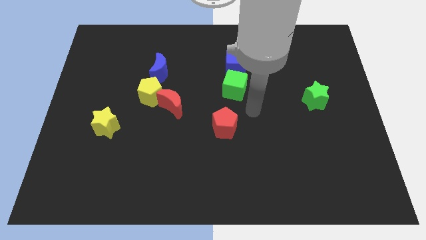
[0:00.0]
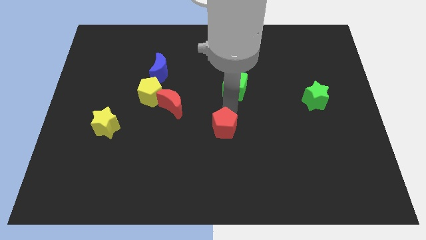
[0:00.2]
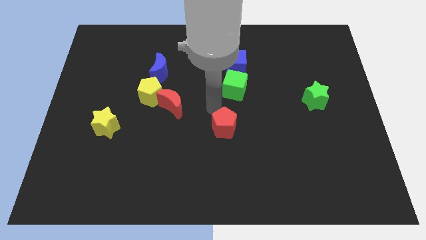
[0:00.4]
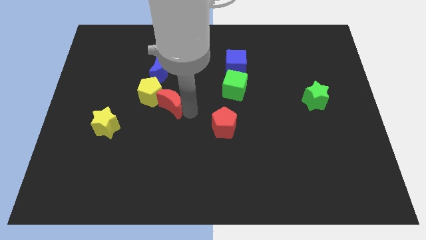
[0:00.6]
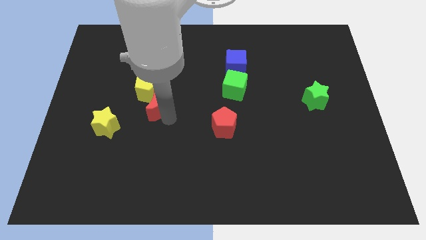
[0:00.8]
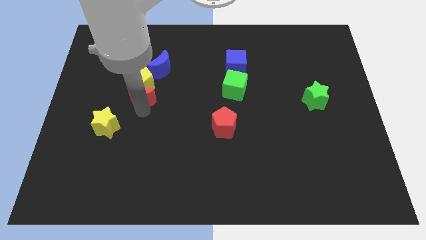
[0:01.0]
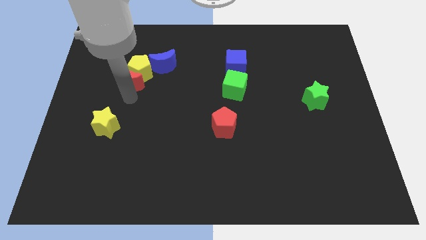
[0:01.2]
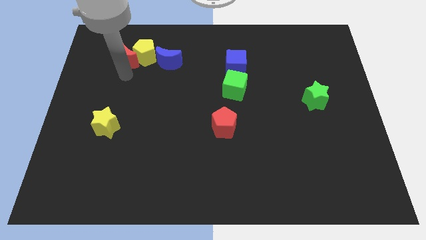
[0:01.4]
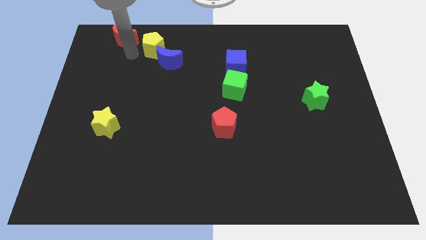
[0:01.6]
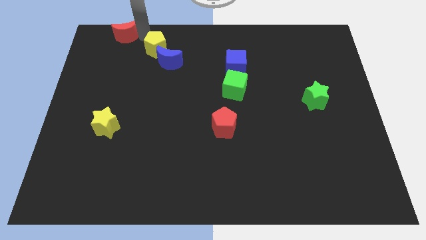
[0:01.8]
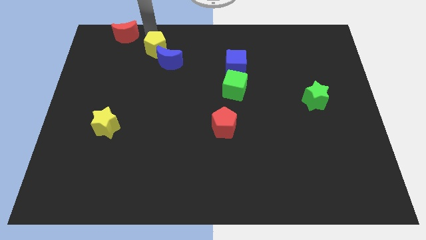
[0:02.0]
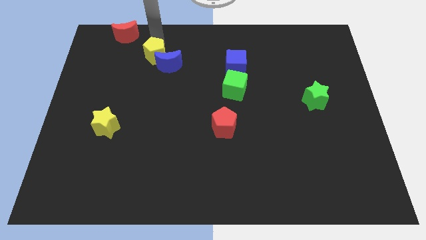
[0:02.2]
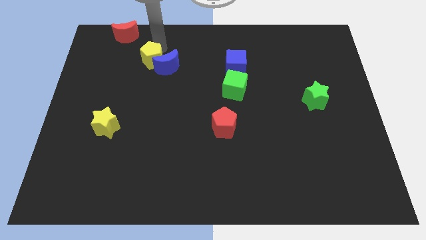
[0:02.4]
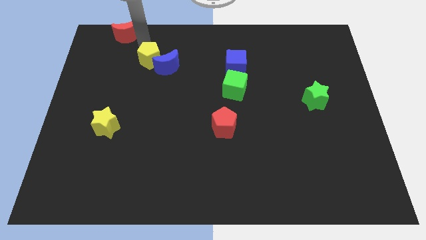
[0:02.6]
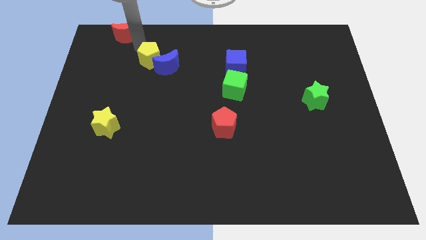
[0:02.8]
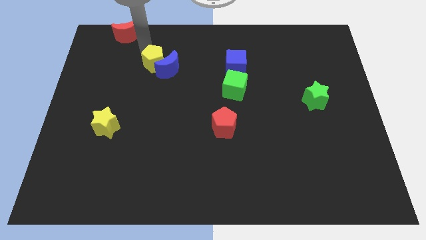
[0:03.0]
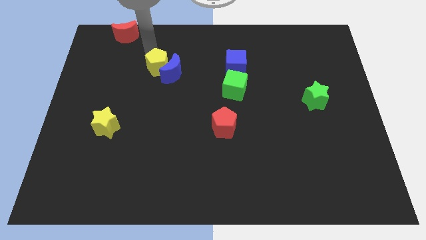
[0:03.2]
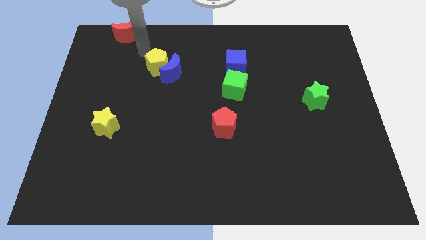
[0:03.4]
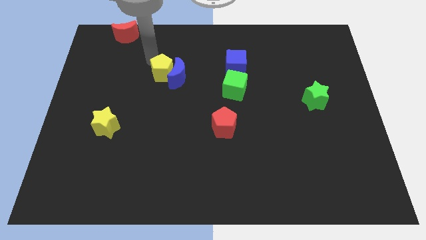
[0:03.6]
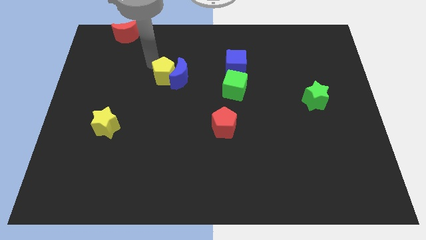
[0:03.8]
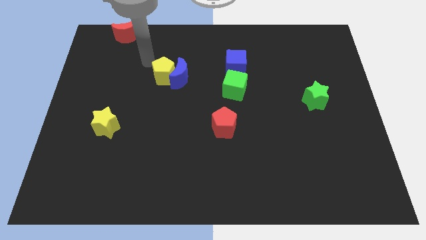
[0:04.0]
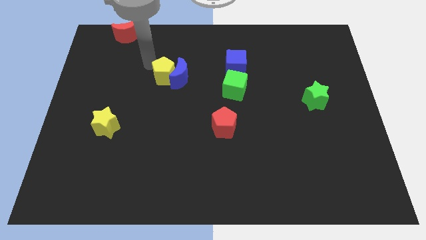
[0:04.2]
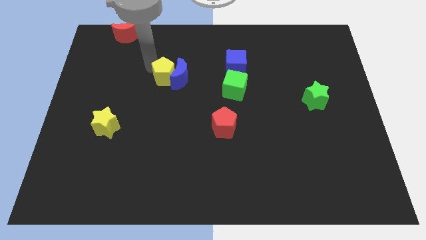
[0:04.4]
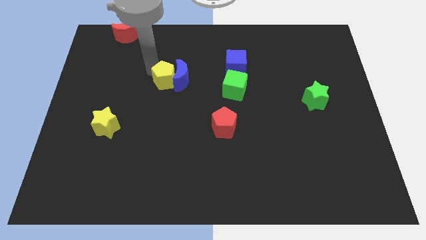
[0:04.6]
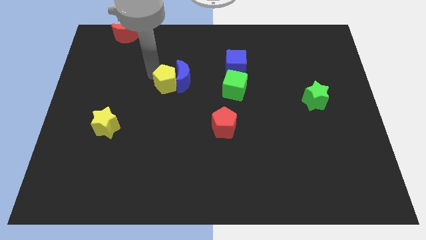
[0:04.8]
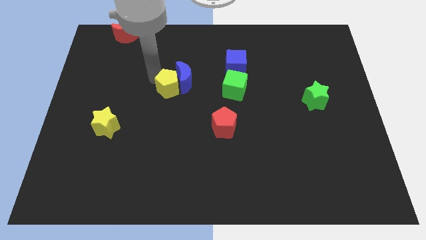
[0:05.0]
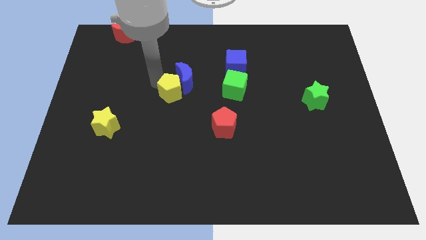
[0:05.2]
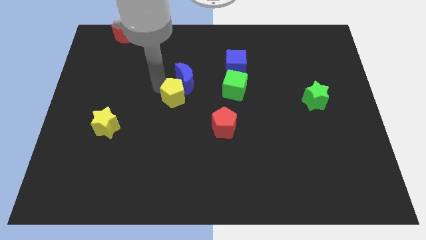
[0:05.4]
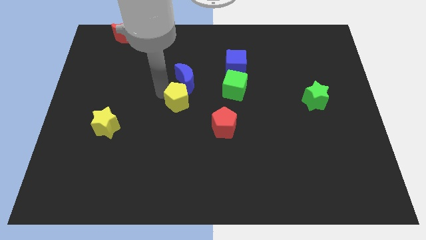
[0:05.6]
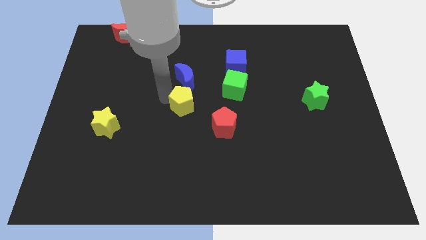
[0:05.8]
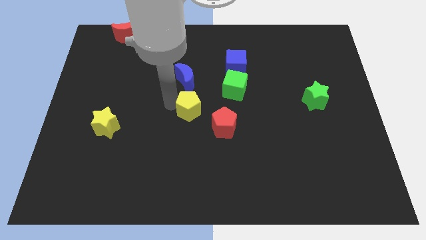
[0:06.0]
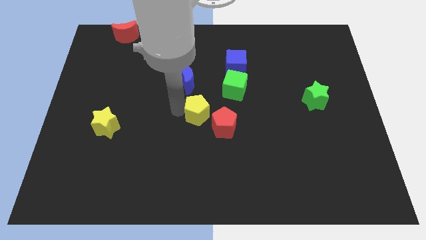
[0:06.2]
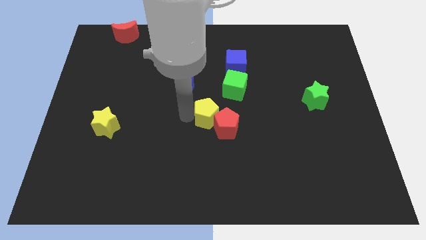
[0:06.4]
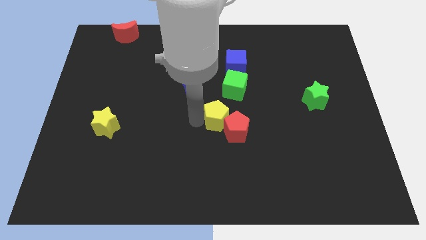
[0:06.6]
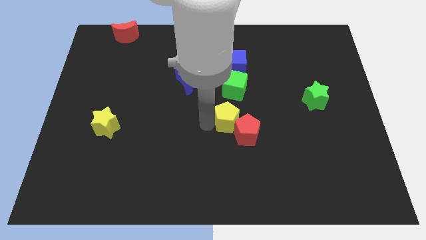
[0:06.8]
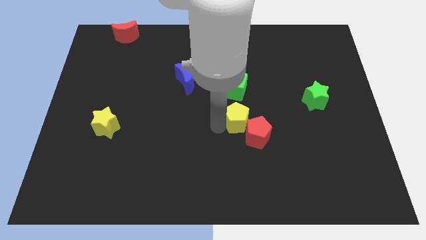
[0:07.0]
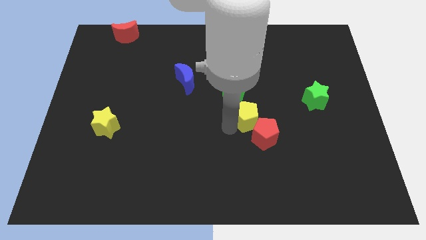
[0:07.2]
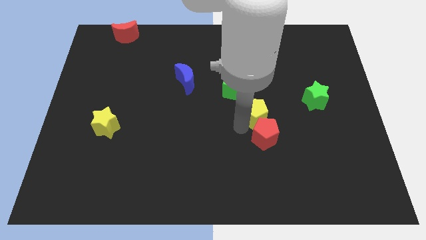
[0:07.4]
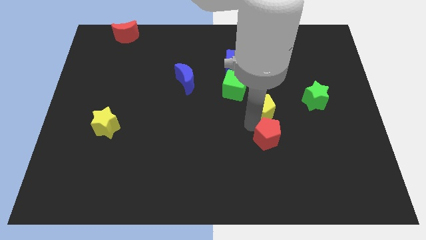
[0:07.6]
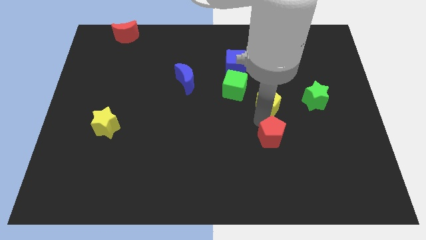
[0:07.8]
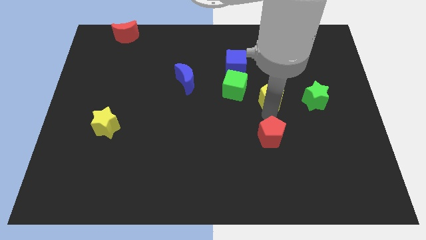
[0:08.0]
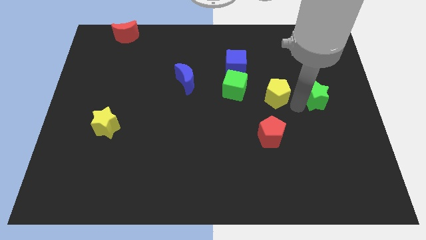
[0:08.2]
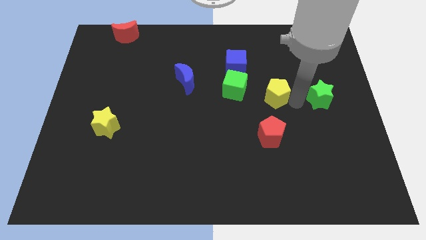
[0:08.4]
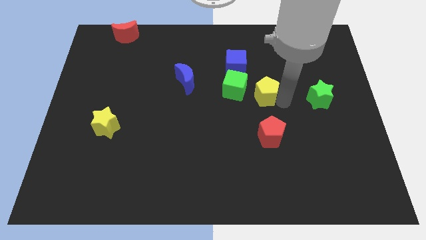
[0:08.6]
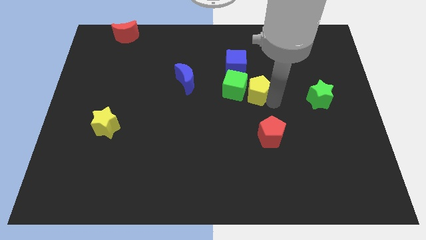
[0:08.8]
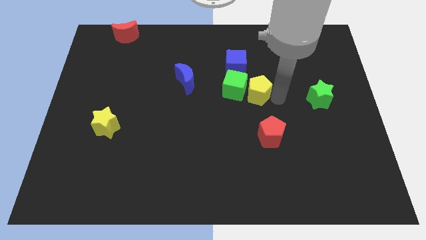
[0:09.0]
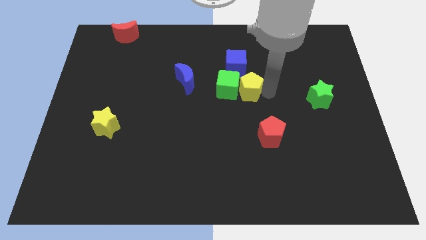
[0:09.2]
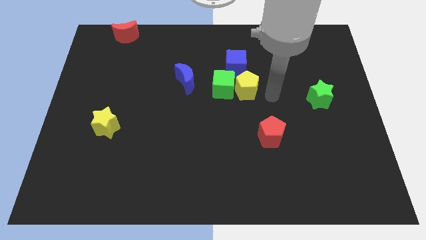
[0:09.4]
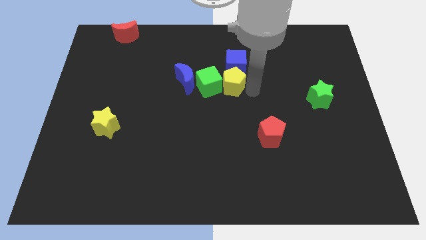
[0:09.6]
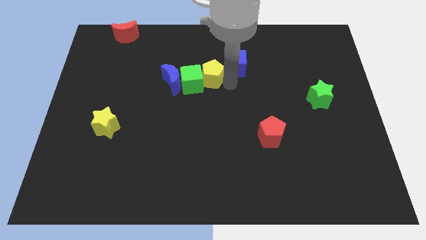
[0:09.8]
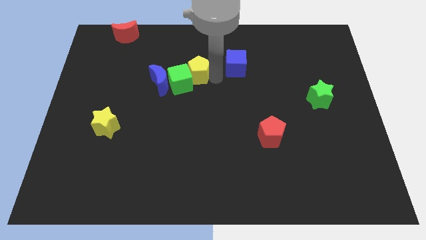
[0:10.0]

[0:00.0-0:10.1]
put the yellow pentagon to the top right of the blue moon

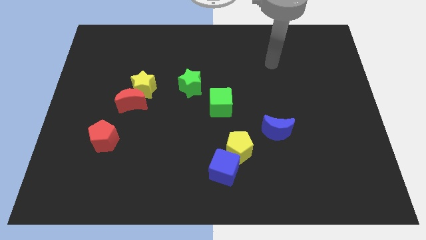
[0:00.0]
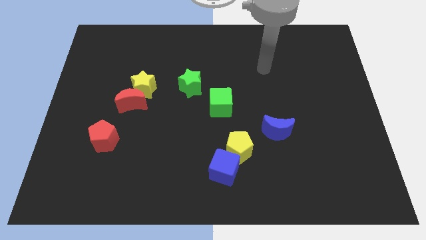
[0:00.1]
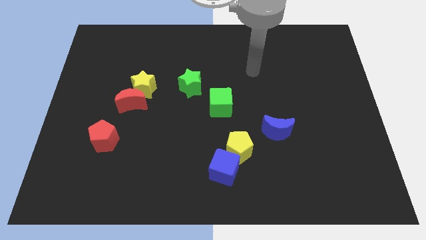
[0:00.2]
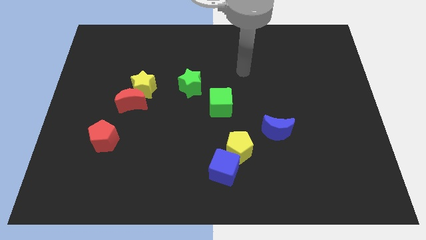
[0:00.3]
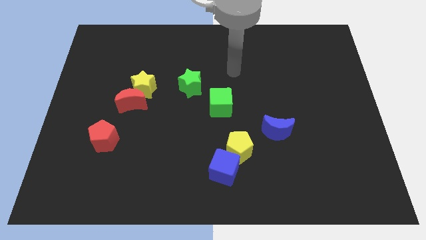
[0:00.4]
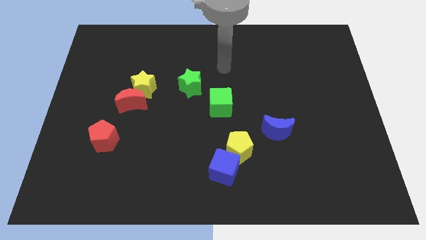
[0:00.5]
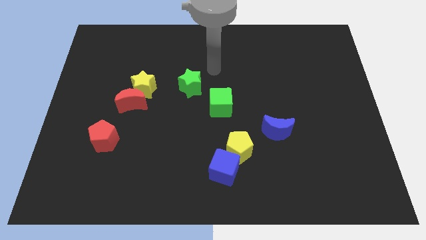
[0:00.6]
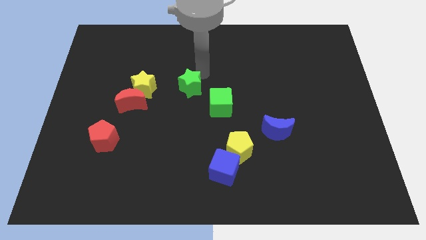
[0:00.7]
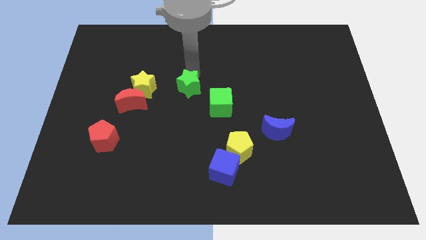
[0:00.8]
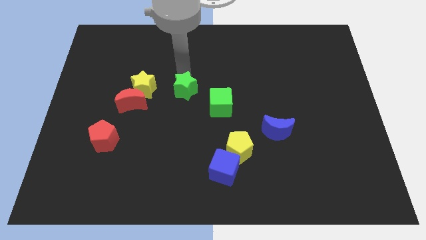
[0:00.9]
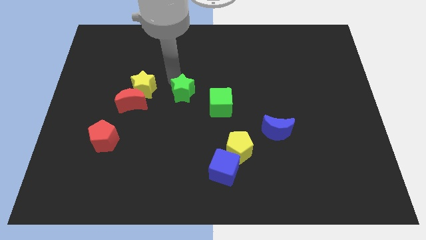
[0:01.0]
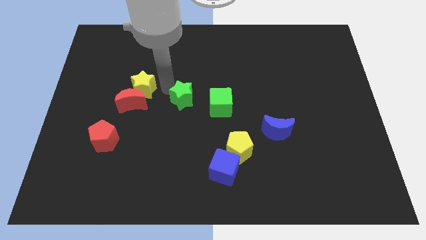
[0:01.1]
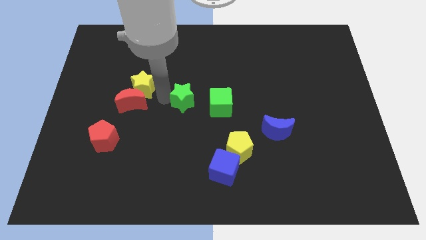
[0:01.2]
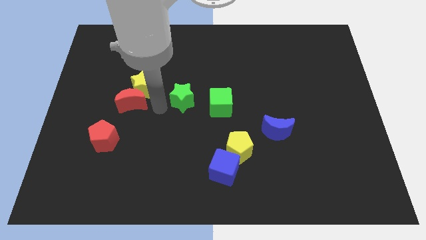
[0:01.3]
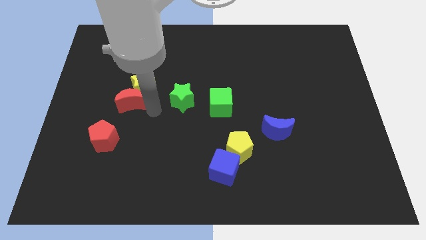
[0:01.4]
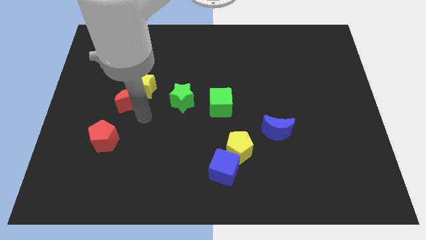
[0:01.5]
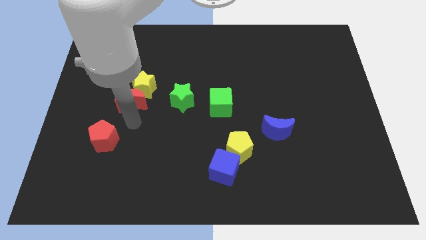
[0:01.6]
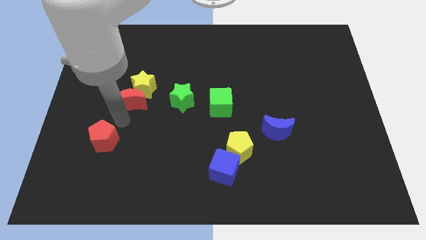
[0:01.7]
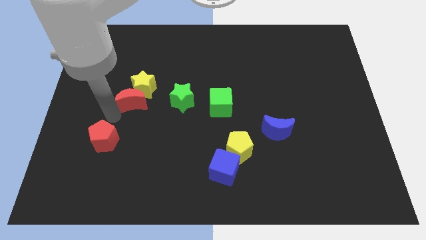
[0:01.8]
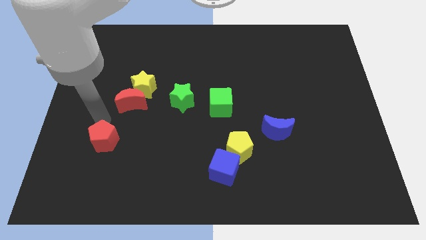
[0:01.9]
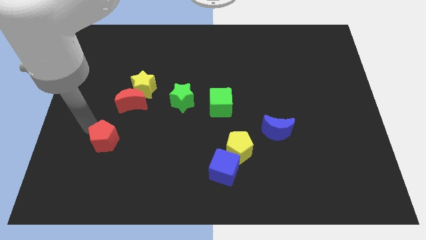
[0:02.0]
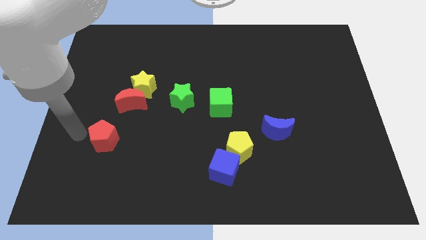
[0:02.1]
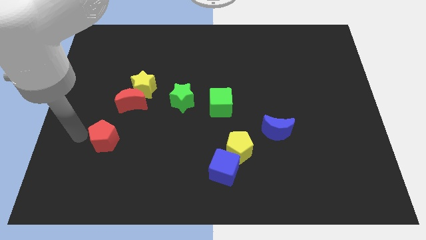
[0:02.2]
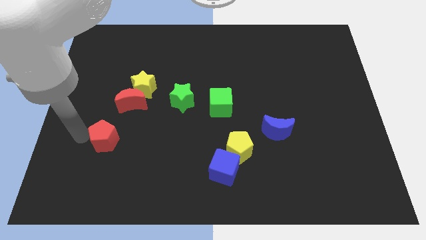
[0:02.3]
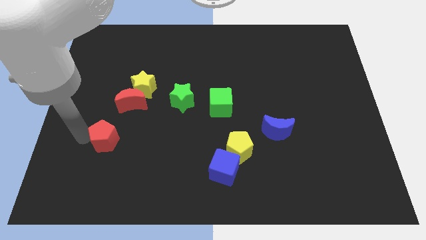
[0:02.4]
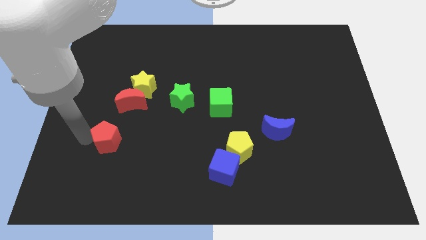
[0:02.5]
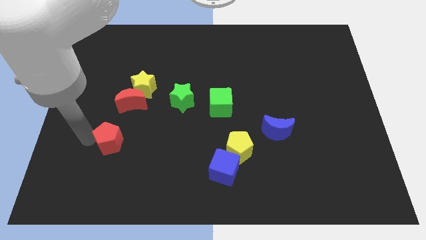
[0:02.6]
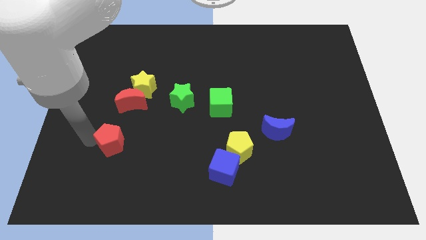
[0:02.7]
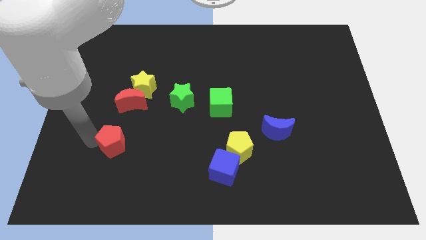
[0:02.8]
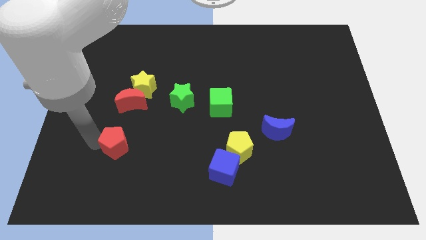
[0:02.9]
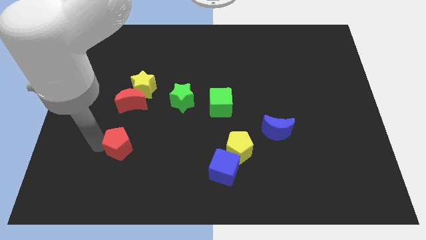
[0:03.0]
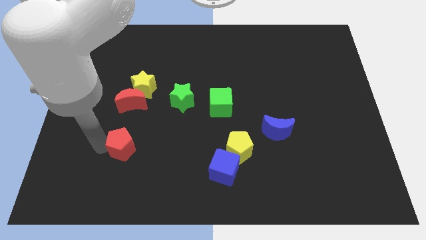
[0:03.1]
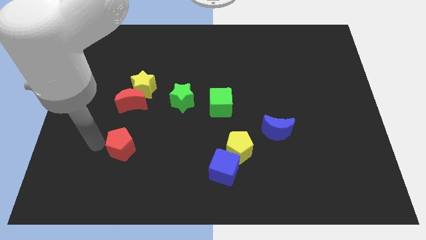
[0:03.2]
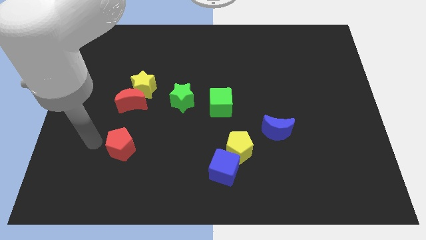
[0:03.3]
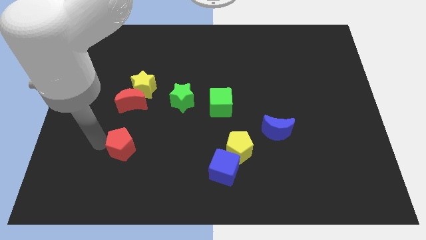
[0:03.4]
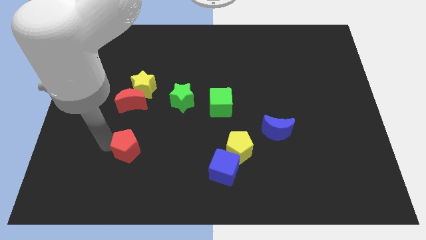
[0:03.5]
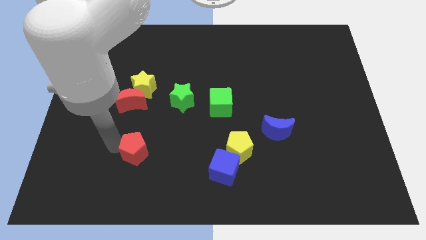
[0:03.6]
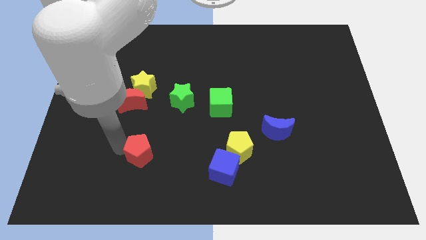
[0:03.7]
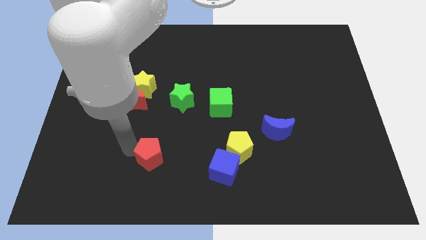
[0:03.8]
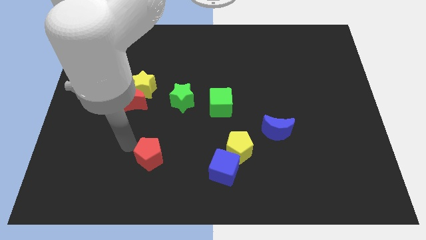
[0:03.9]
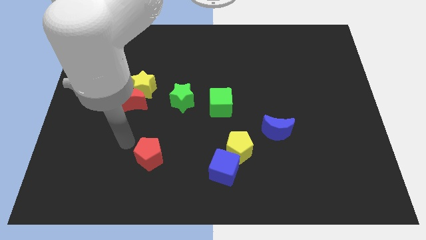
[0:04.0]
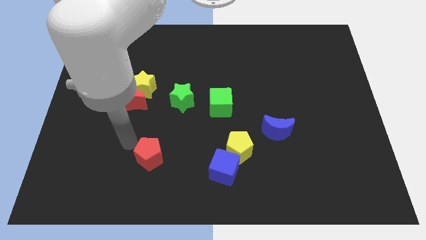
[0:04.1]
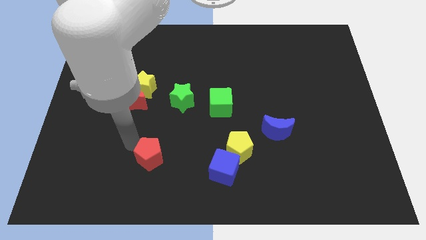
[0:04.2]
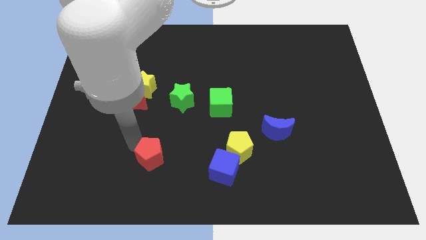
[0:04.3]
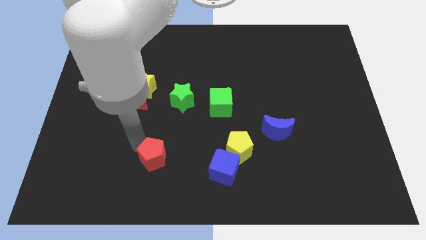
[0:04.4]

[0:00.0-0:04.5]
move the red pentagon just left of the blue cube
